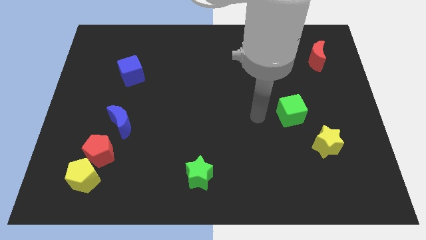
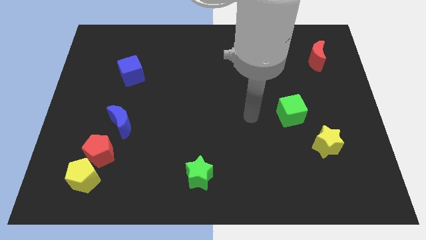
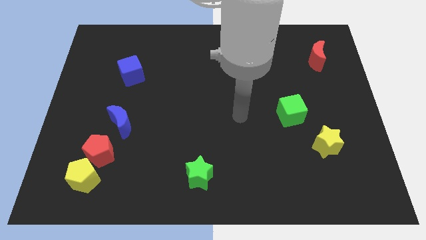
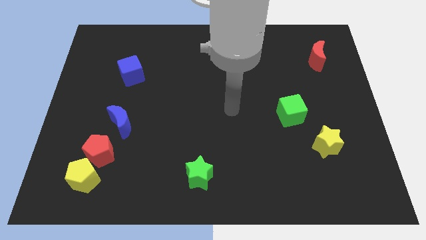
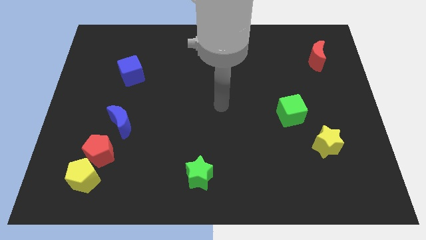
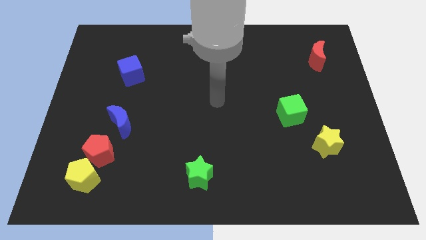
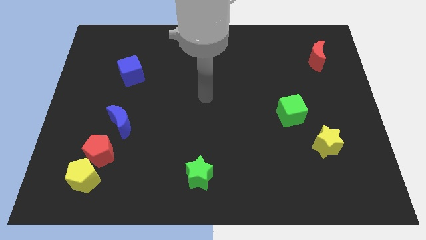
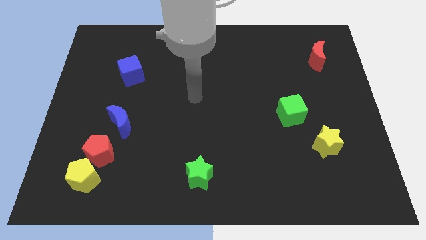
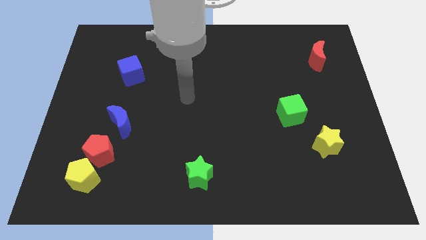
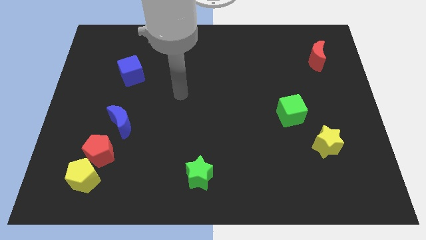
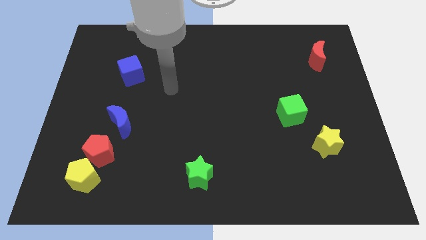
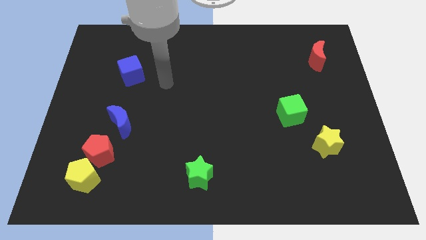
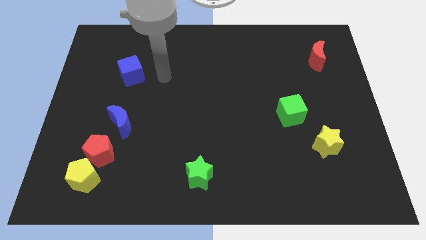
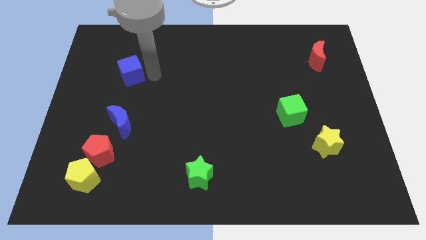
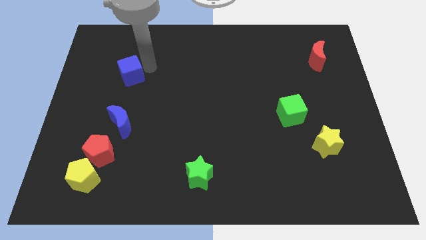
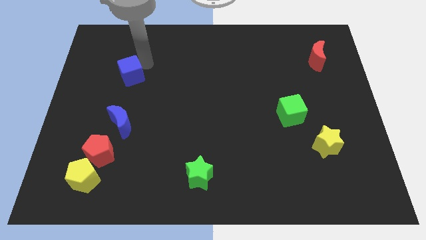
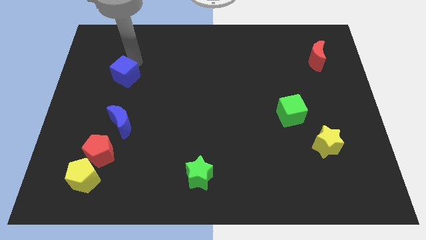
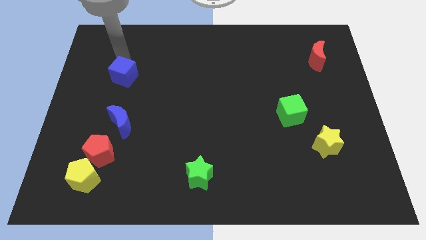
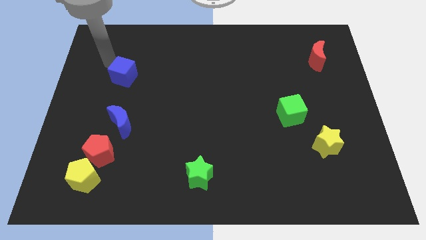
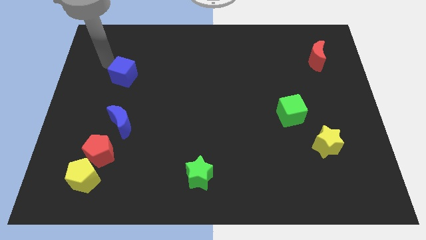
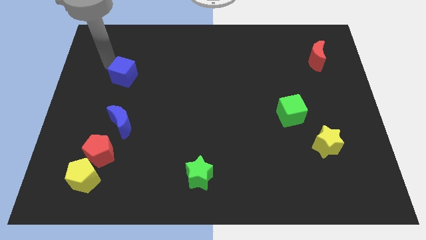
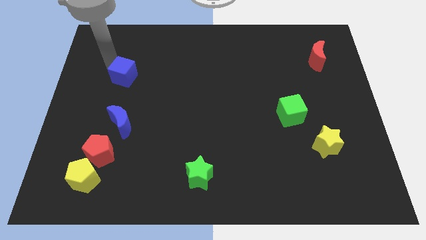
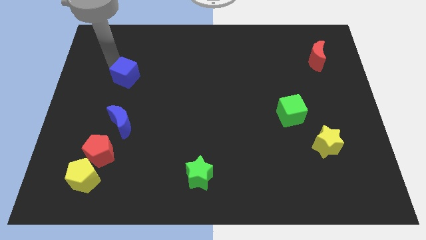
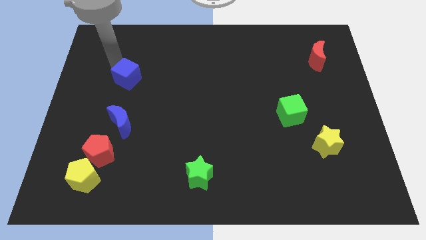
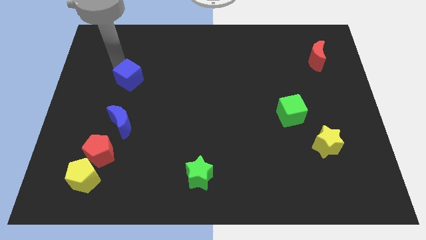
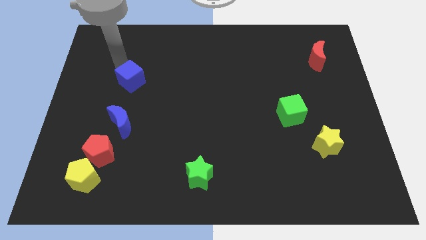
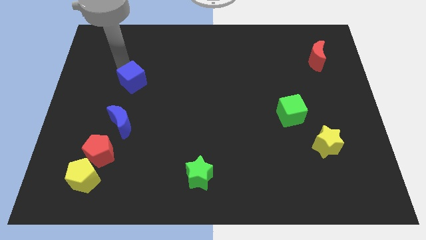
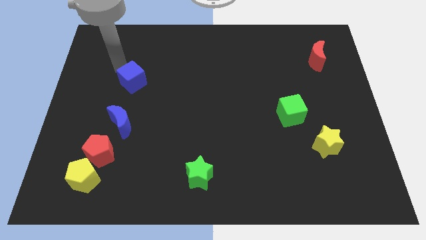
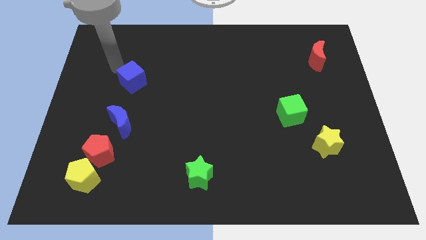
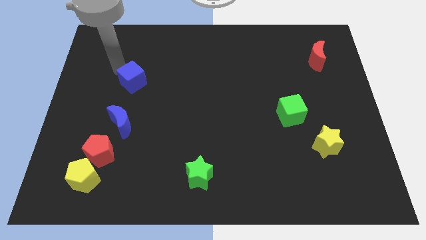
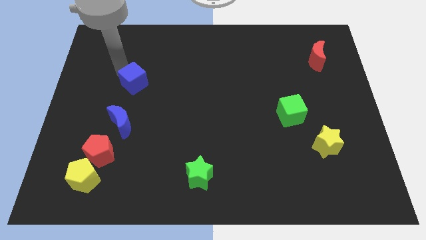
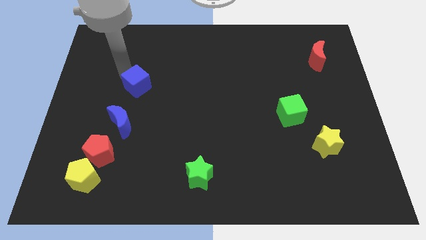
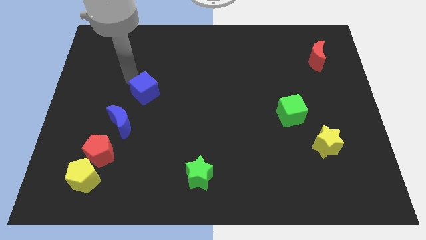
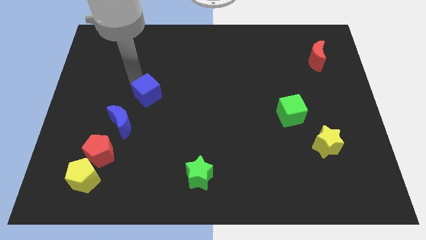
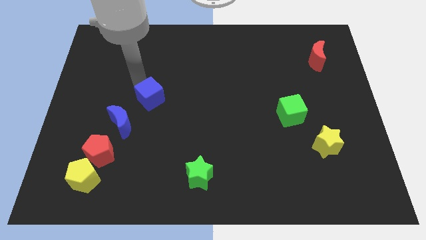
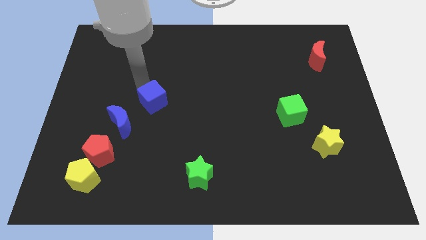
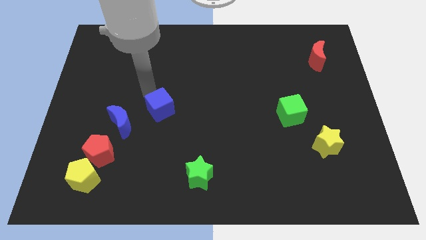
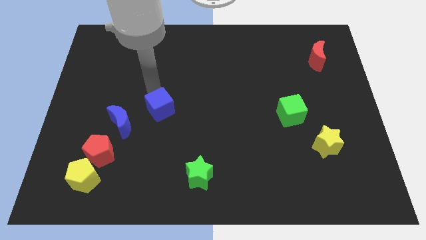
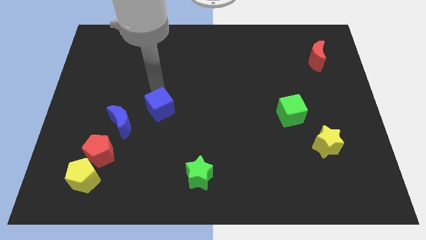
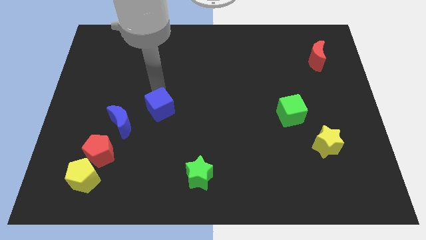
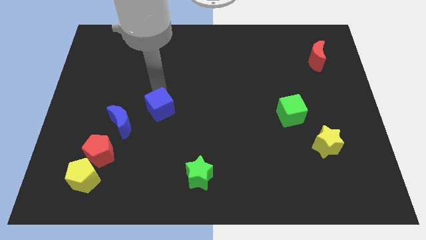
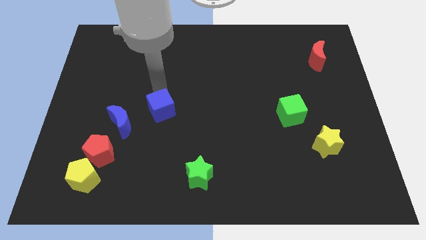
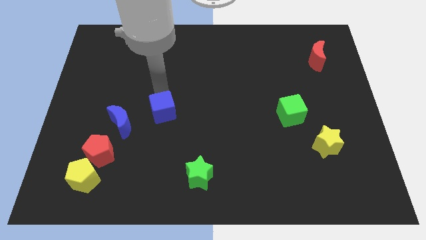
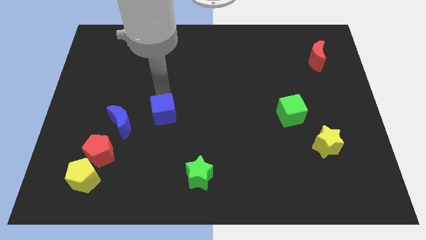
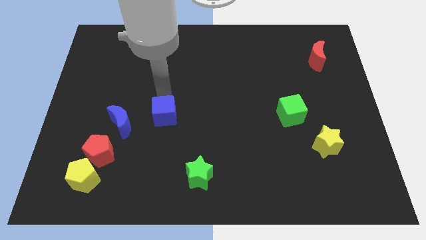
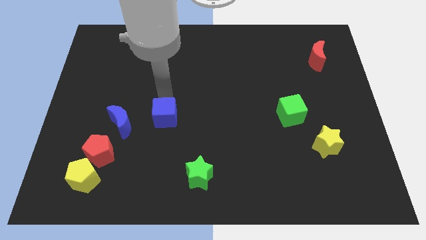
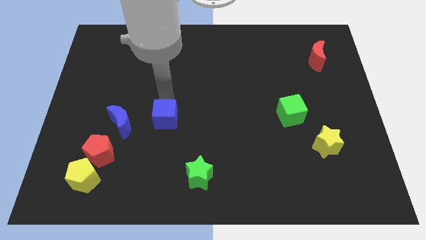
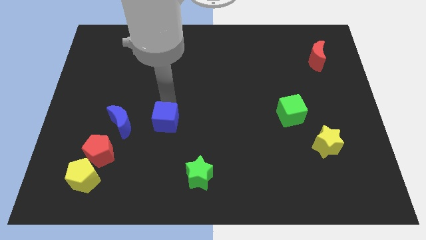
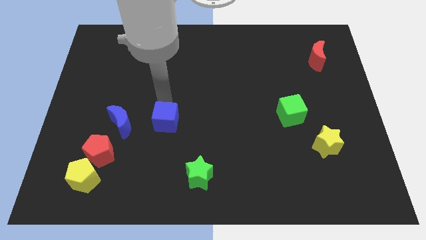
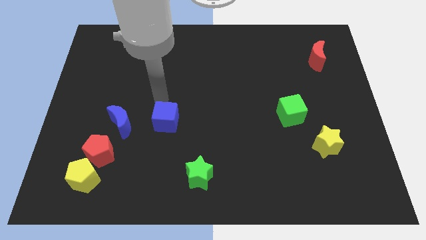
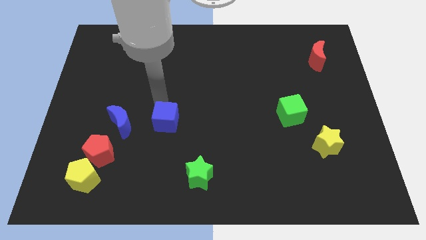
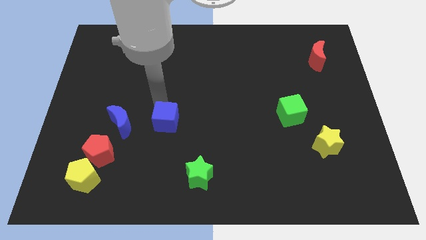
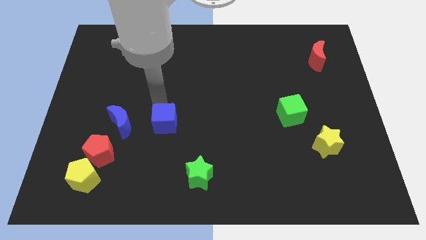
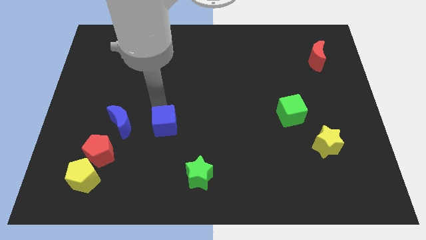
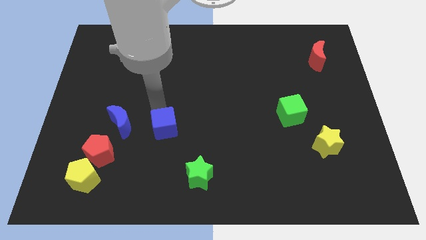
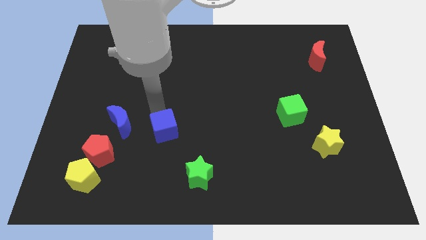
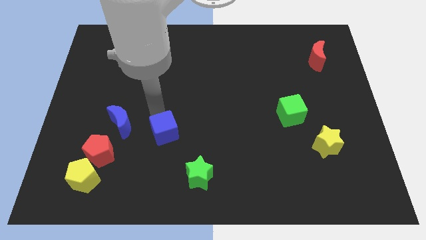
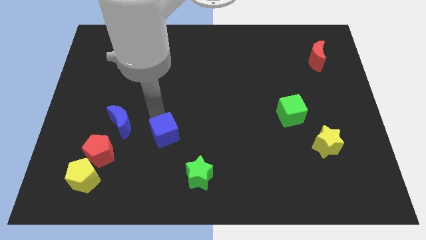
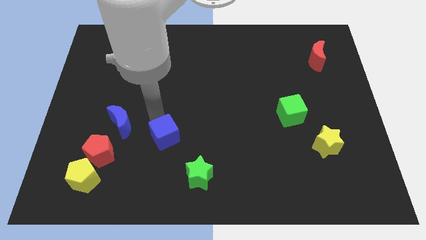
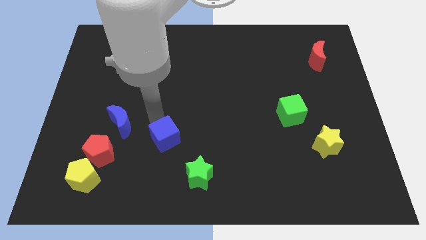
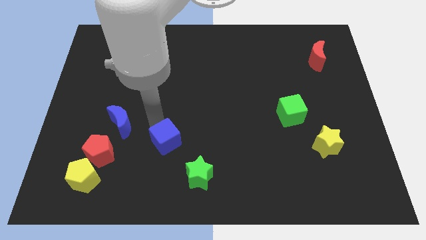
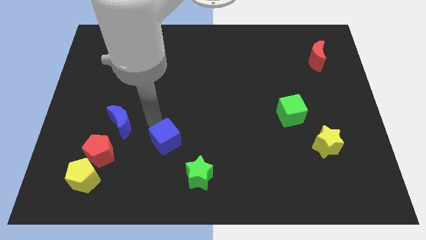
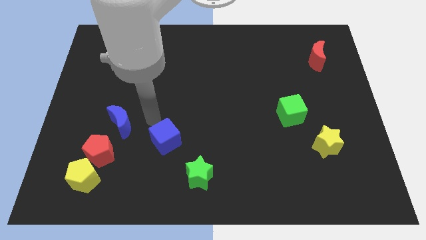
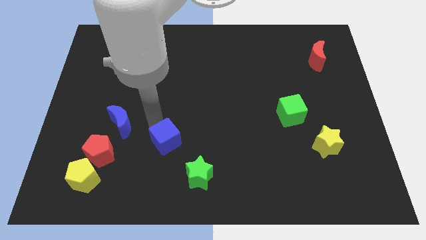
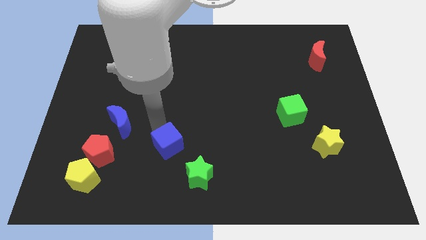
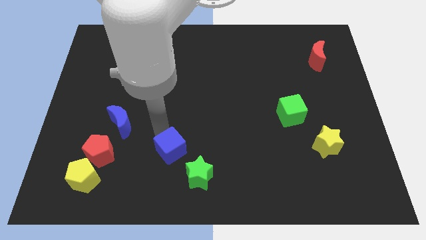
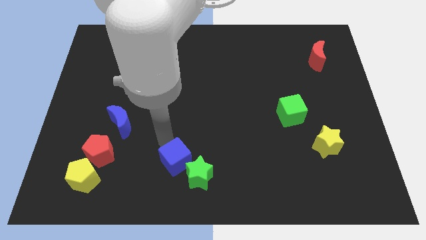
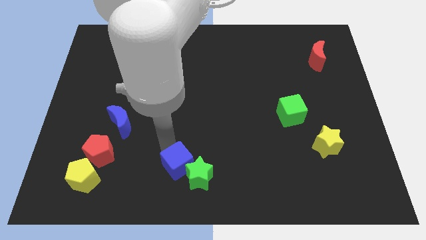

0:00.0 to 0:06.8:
move the blue cube close to the green star

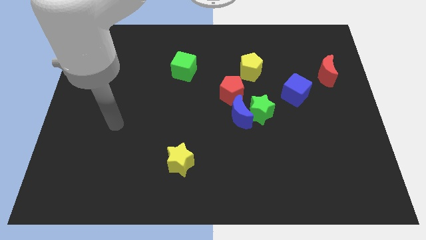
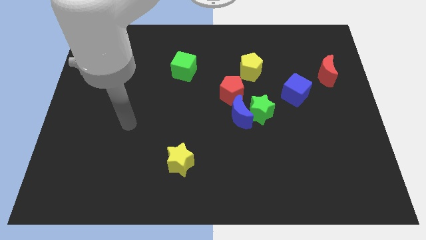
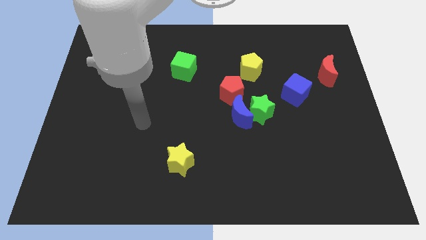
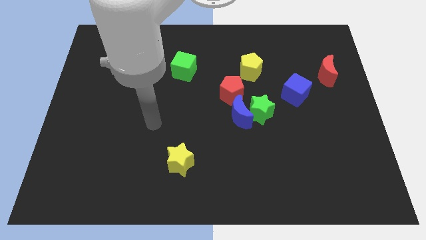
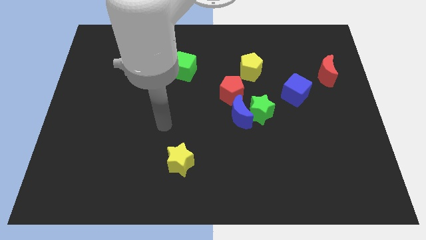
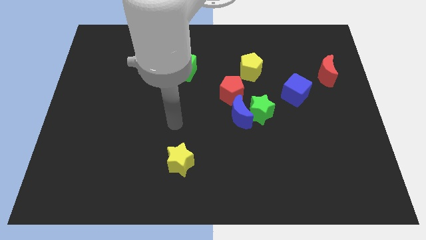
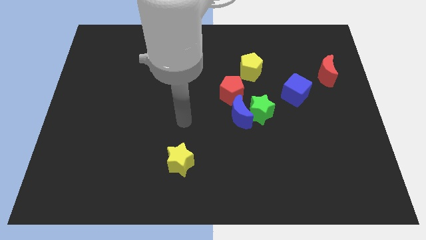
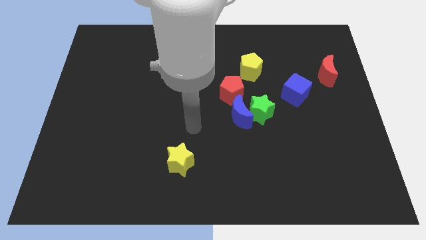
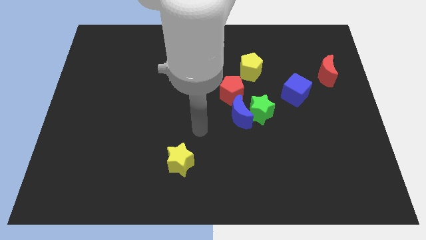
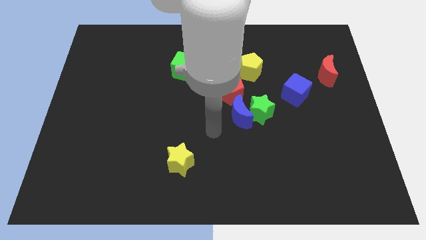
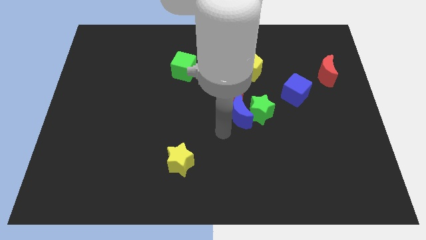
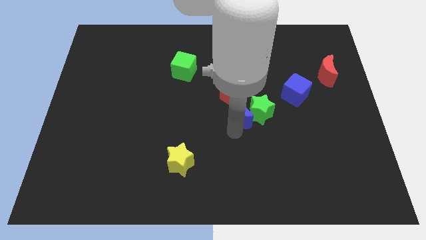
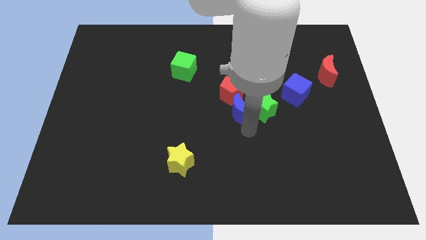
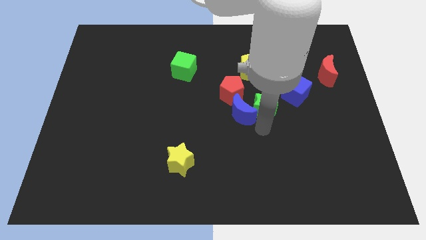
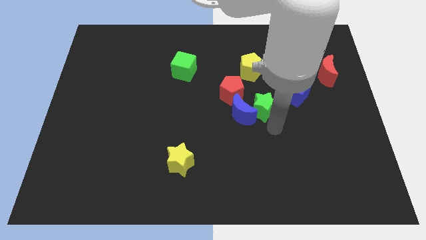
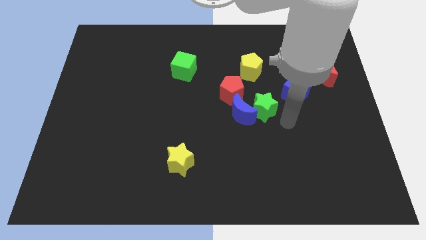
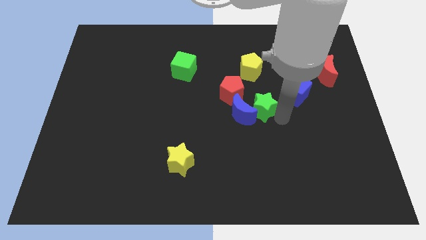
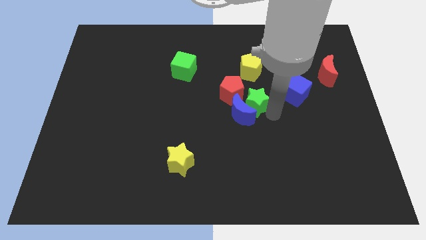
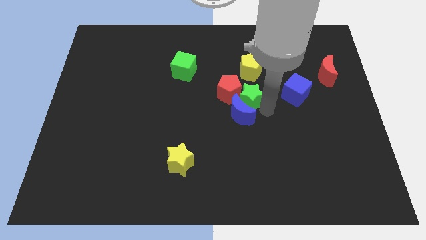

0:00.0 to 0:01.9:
slide the green star towards the red pentagon
